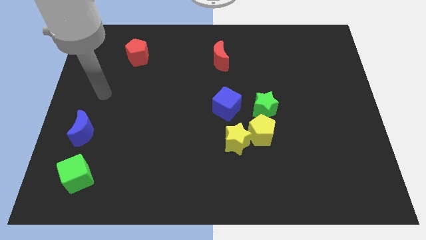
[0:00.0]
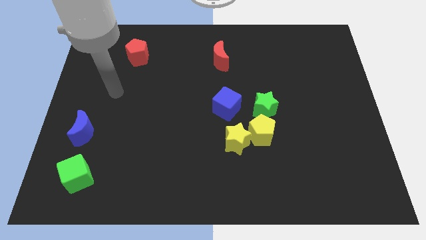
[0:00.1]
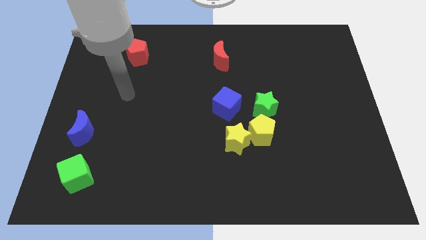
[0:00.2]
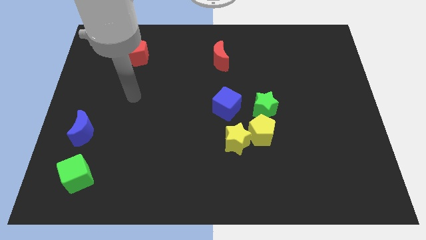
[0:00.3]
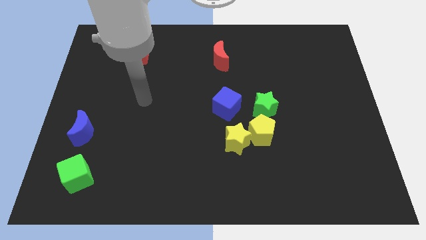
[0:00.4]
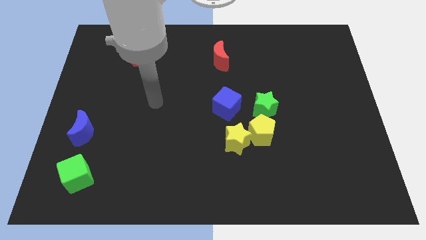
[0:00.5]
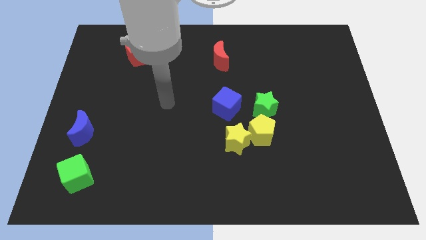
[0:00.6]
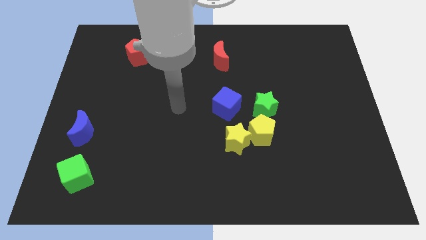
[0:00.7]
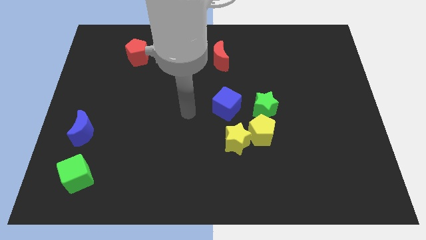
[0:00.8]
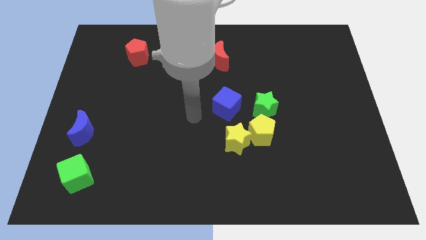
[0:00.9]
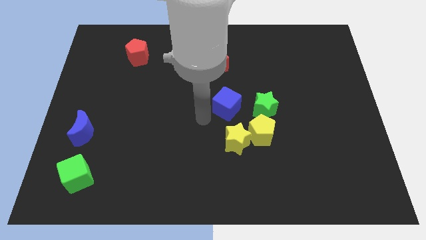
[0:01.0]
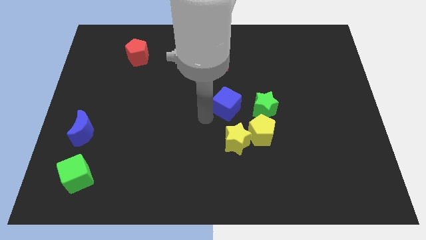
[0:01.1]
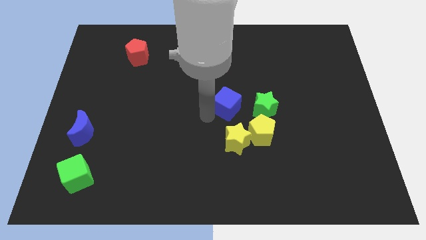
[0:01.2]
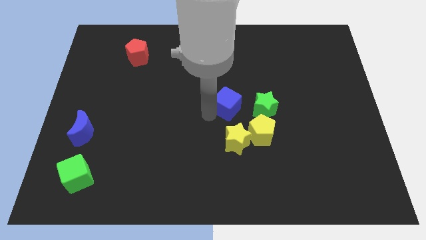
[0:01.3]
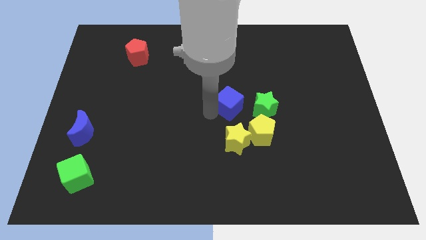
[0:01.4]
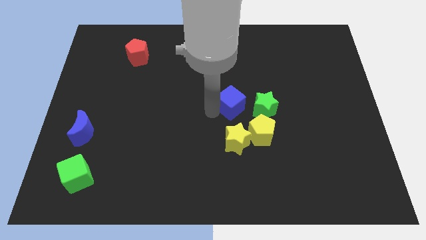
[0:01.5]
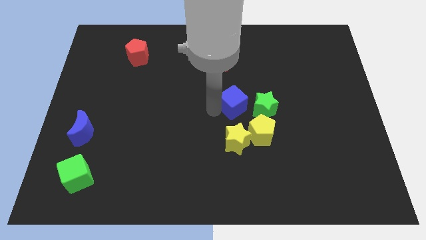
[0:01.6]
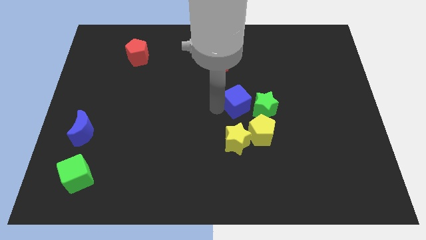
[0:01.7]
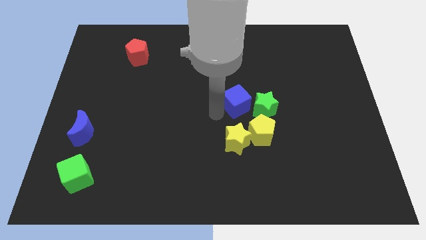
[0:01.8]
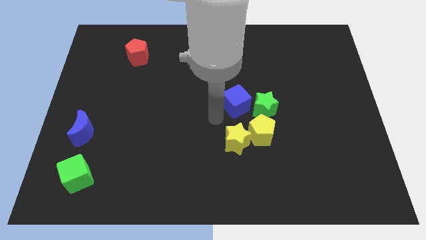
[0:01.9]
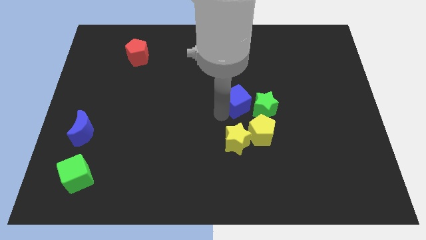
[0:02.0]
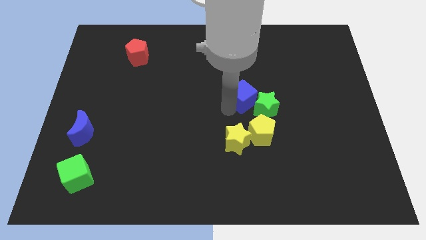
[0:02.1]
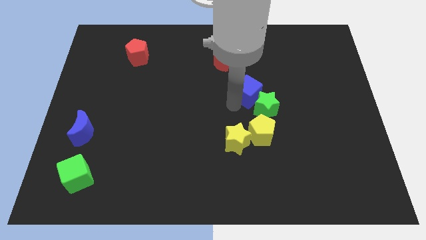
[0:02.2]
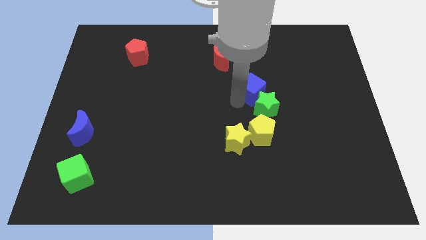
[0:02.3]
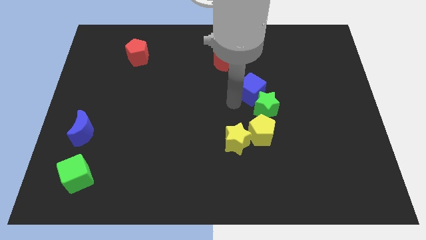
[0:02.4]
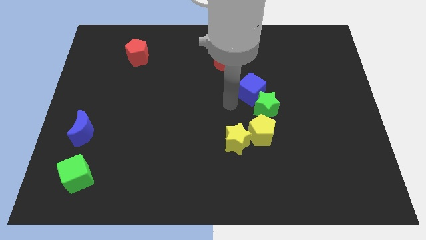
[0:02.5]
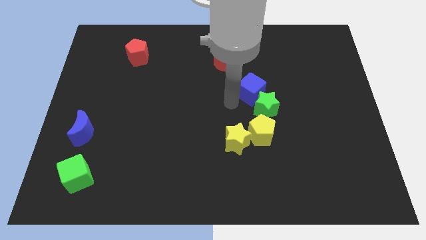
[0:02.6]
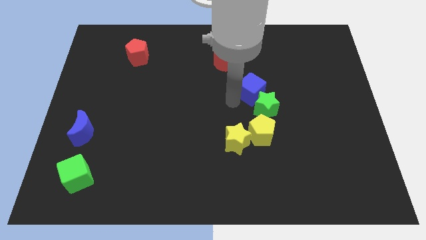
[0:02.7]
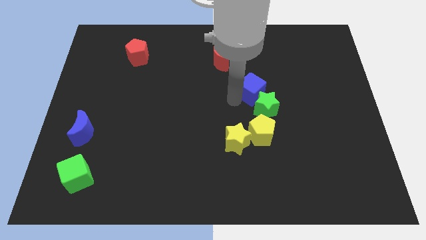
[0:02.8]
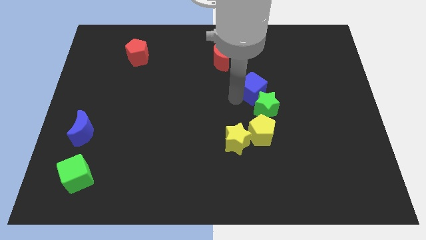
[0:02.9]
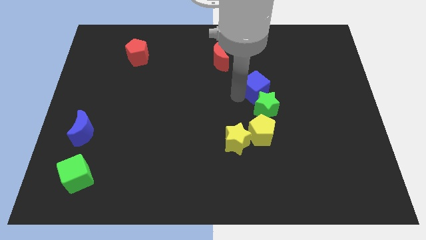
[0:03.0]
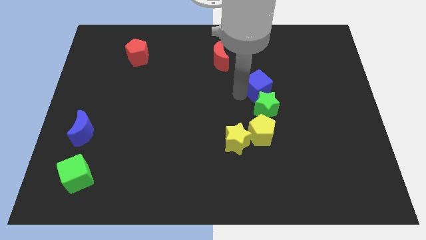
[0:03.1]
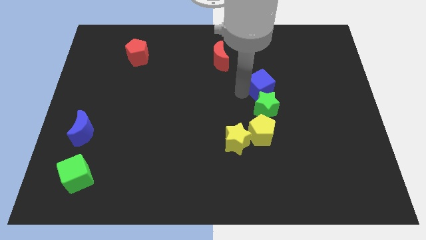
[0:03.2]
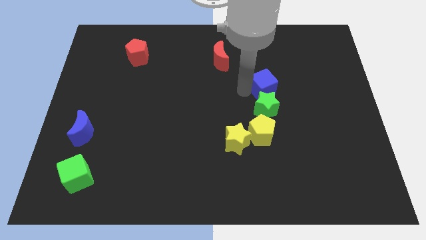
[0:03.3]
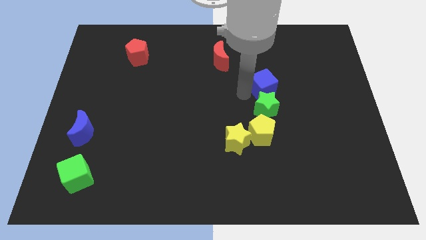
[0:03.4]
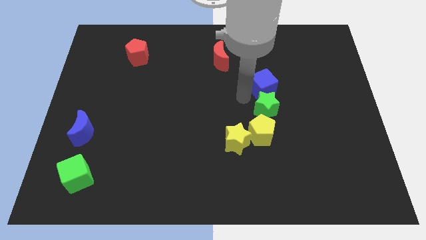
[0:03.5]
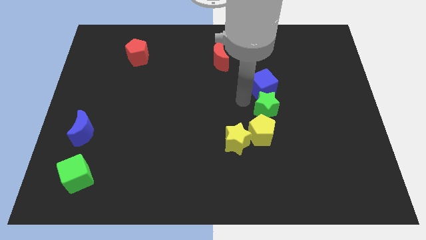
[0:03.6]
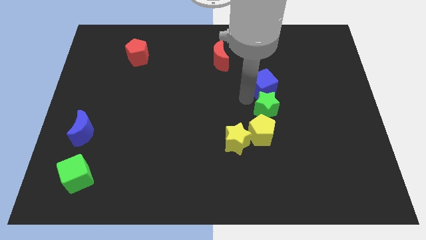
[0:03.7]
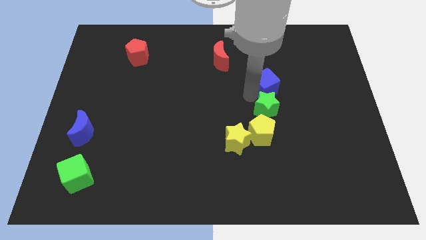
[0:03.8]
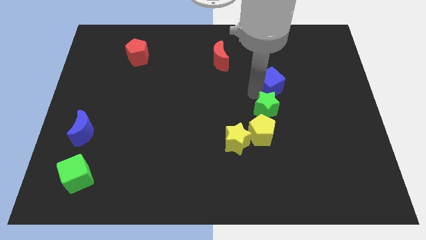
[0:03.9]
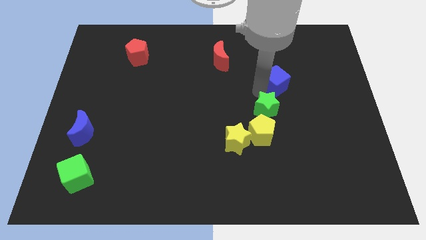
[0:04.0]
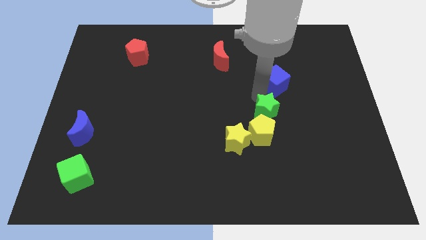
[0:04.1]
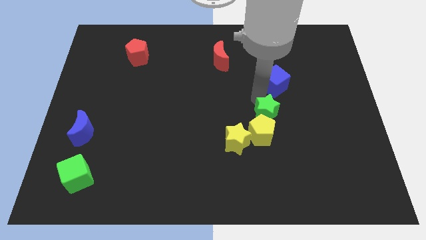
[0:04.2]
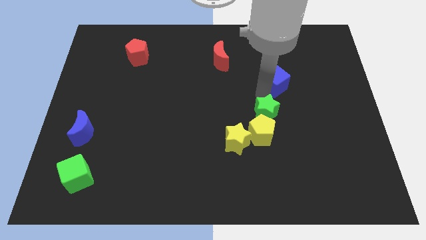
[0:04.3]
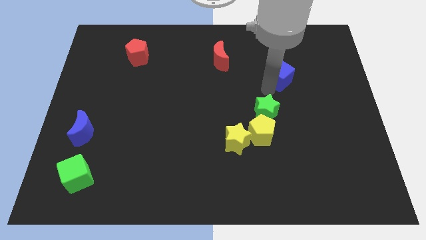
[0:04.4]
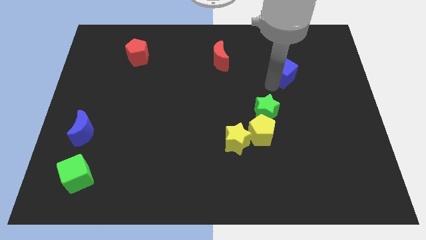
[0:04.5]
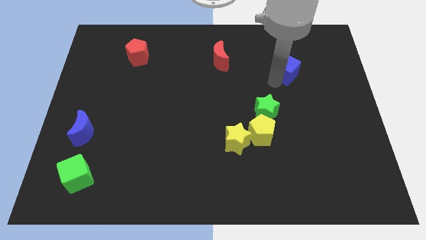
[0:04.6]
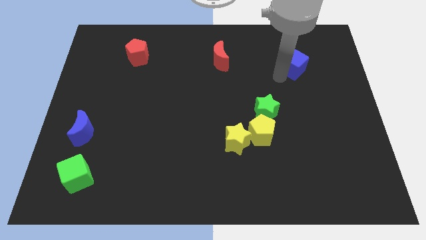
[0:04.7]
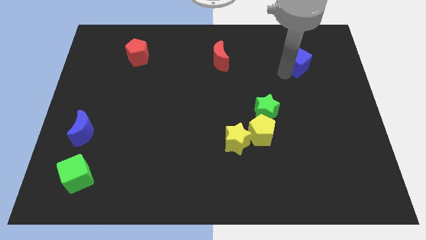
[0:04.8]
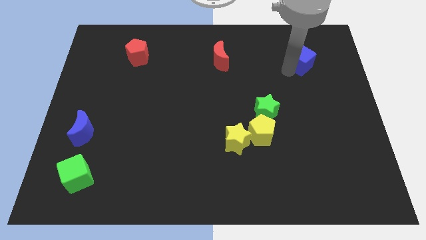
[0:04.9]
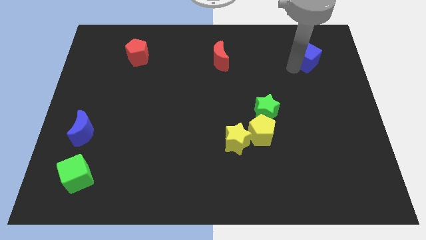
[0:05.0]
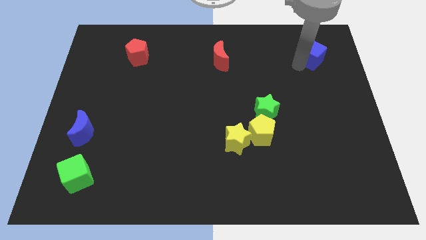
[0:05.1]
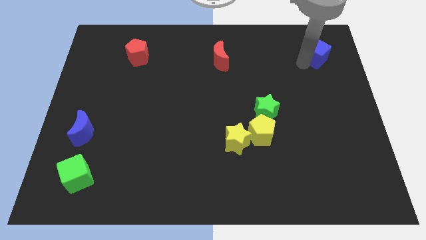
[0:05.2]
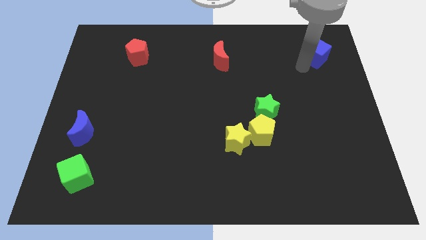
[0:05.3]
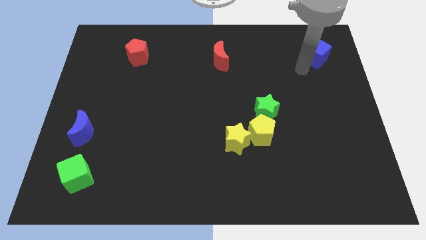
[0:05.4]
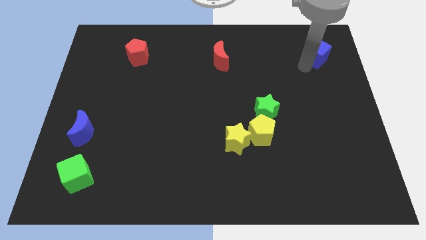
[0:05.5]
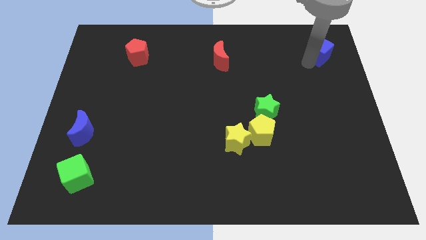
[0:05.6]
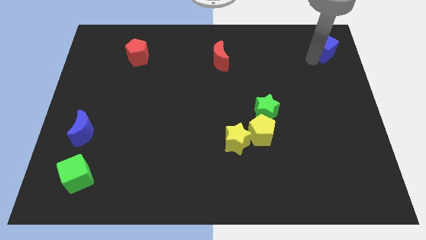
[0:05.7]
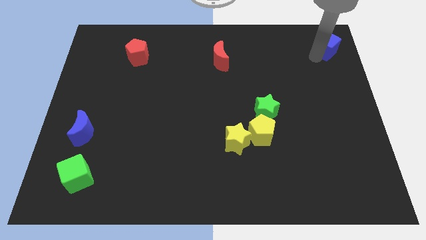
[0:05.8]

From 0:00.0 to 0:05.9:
slide the blue cube to the top right corner
